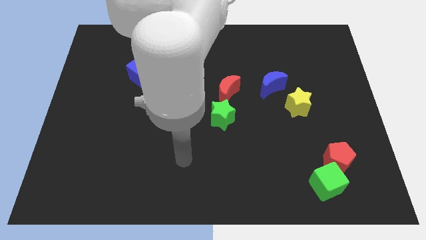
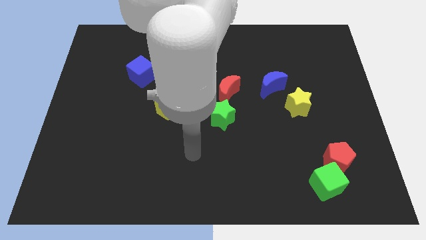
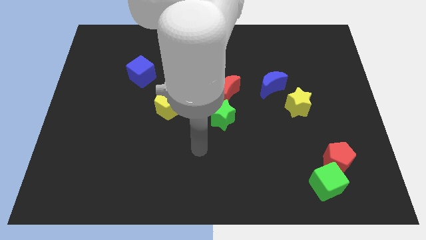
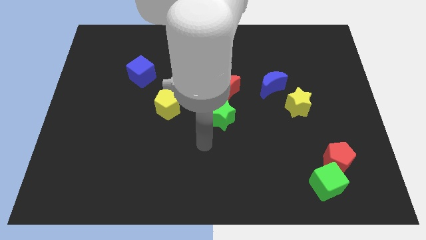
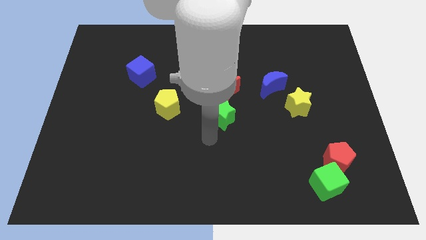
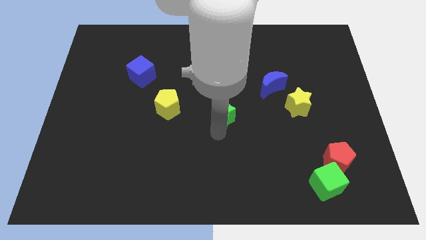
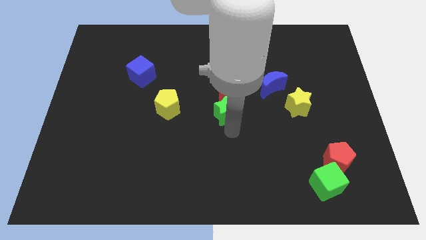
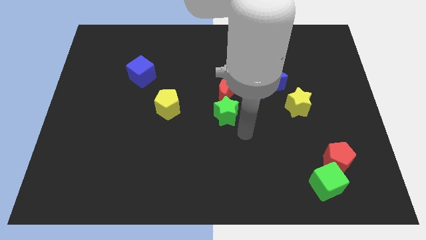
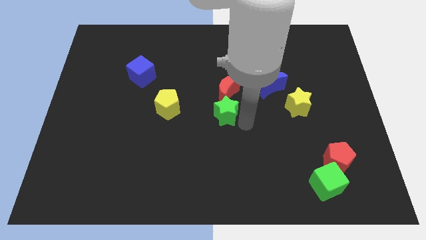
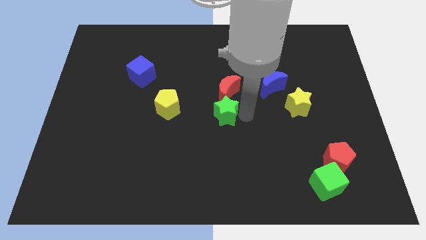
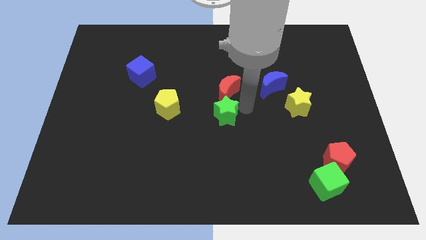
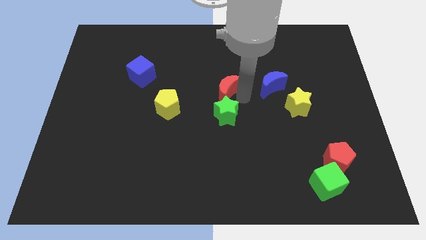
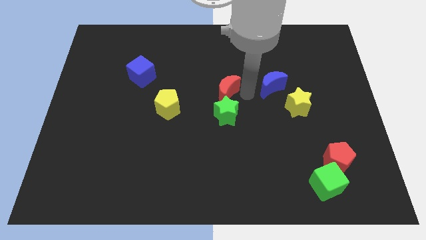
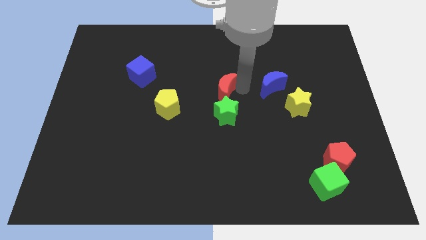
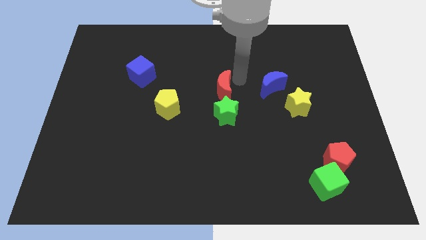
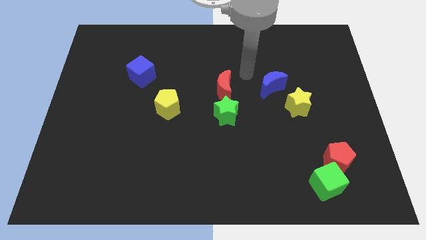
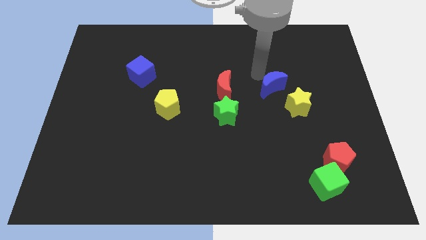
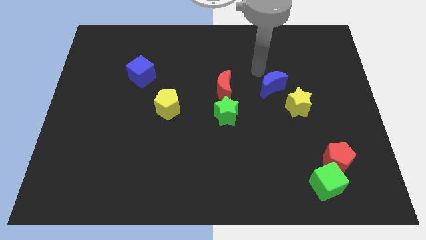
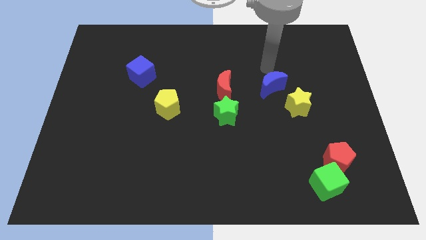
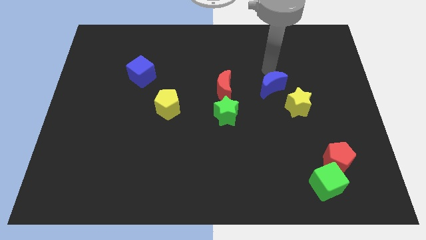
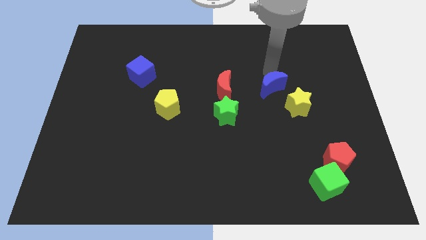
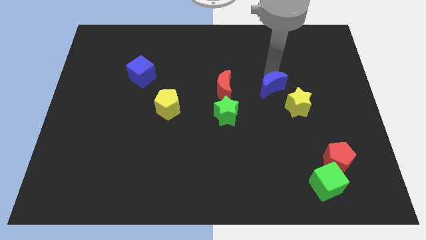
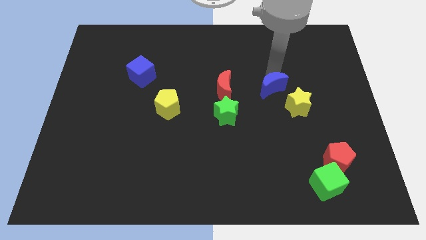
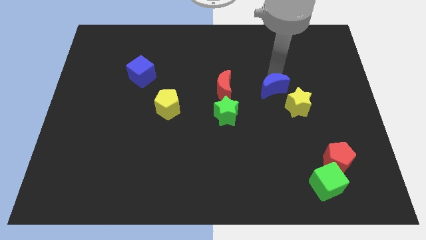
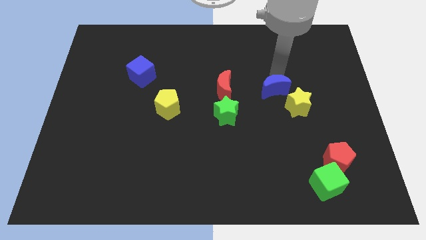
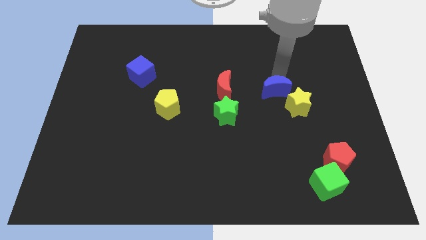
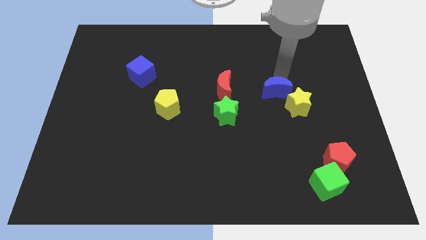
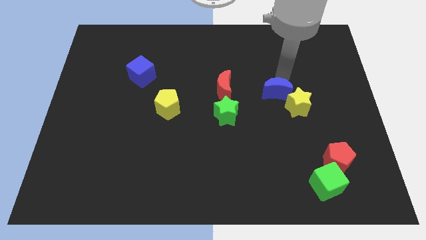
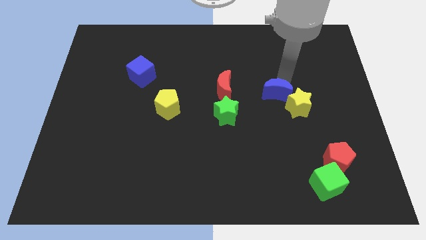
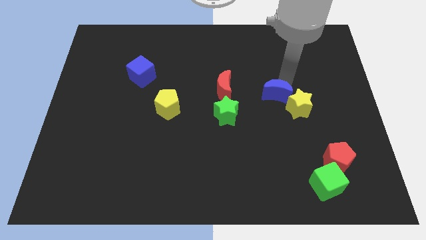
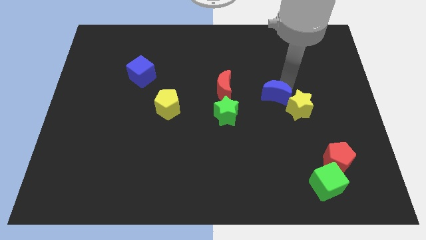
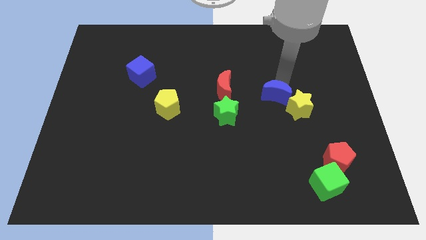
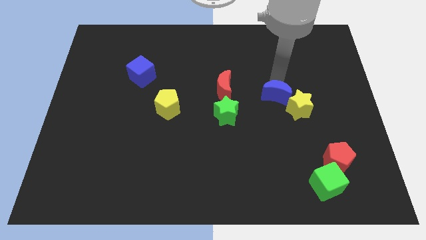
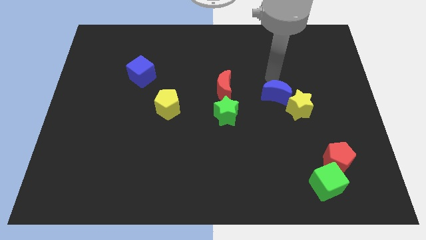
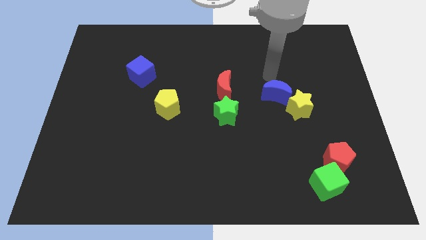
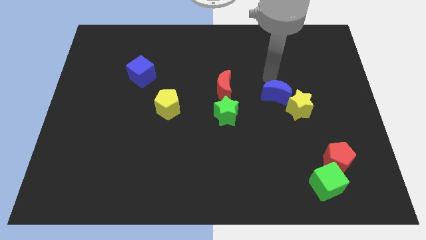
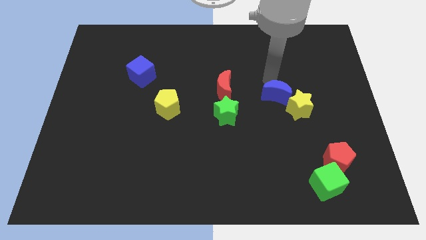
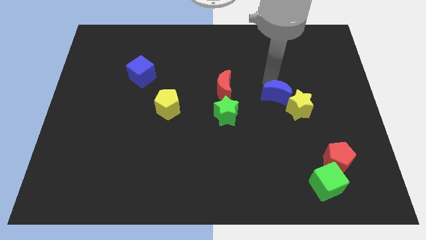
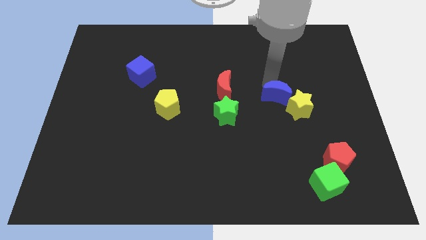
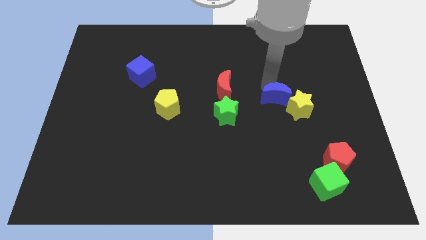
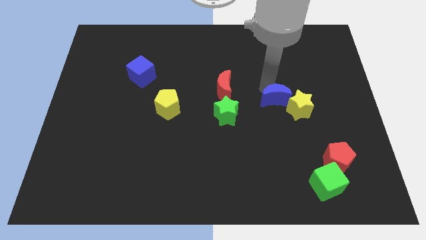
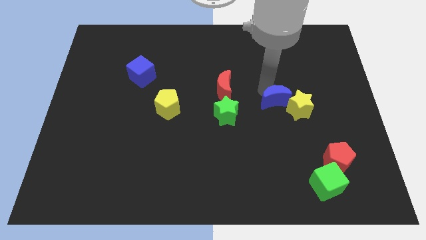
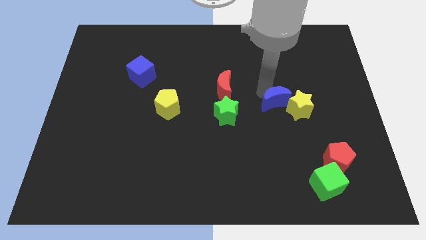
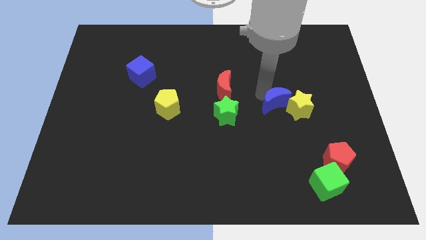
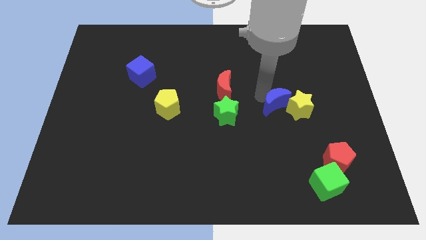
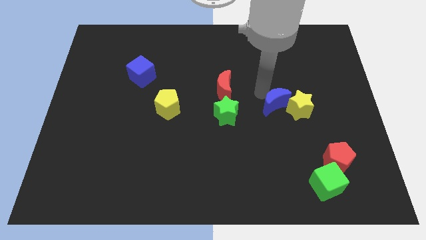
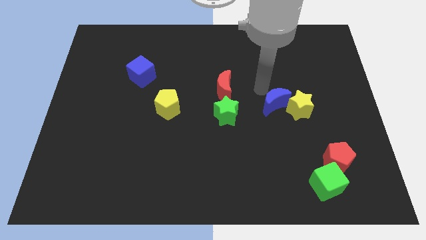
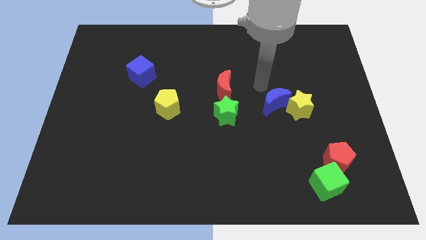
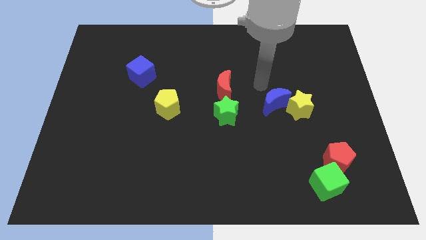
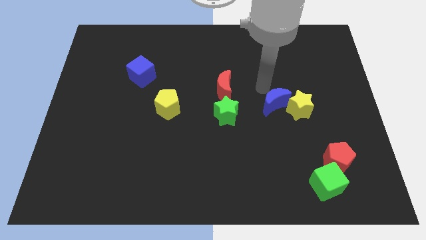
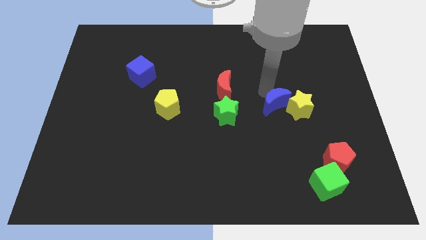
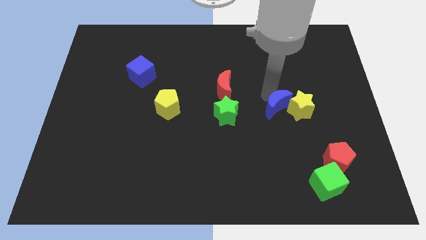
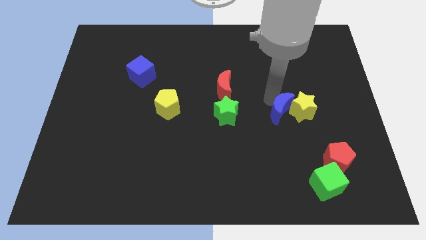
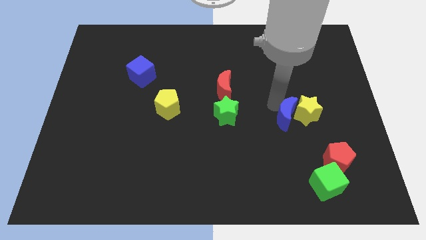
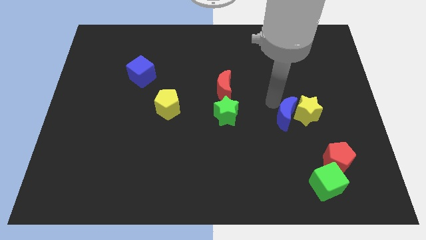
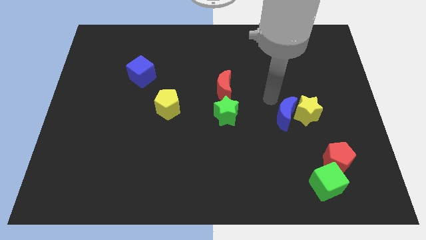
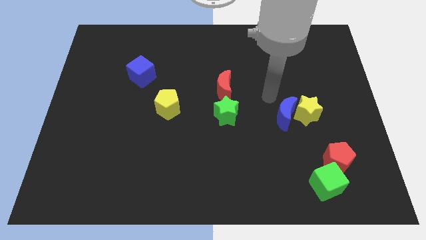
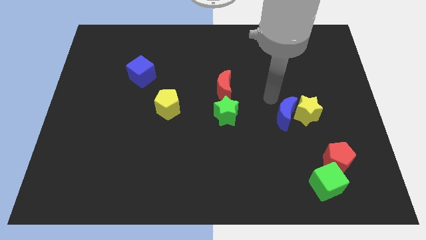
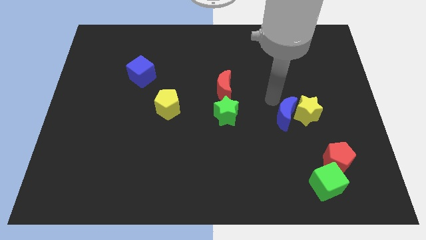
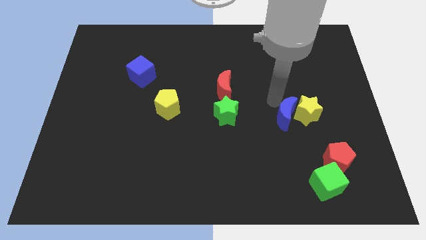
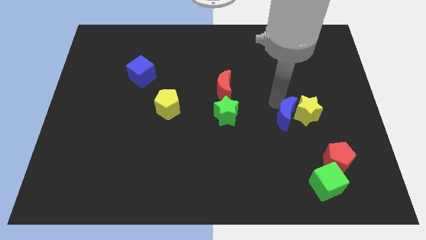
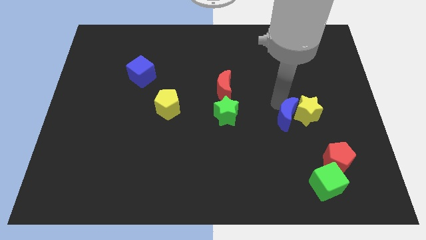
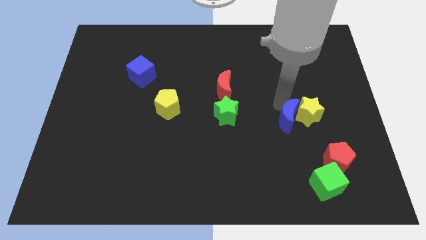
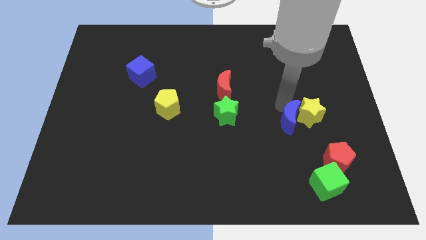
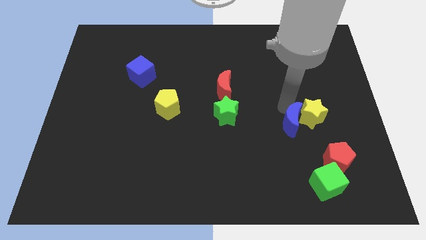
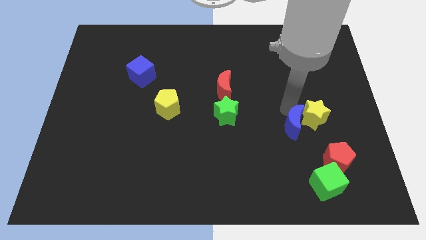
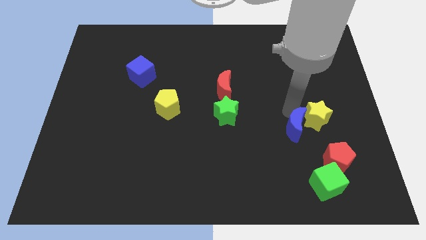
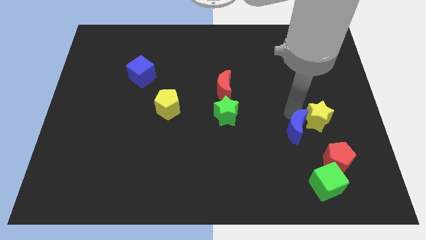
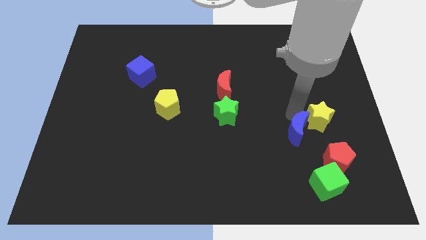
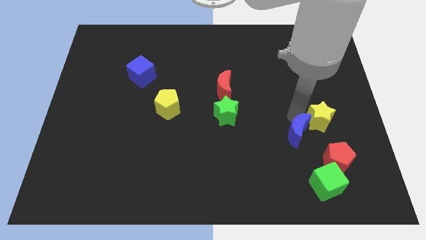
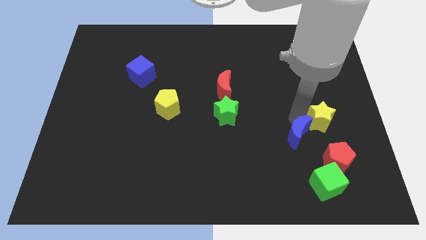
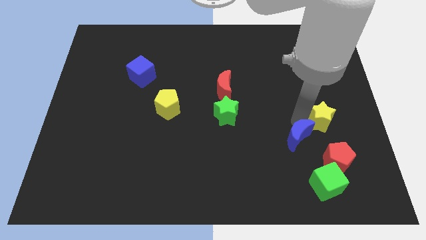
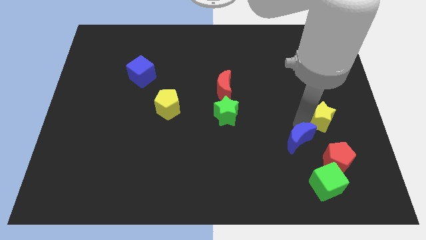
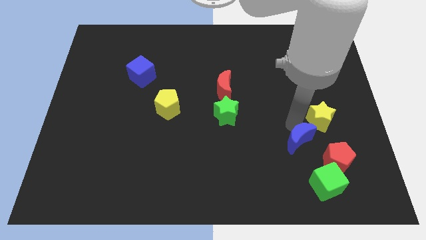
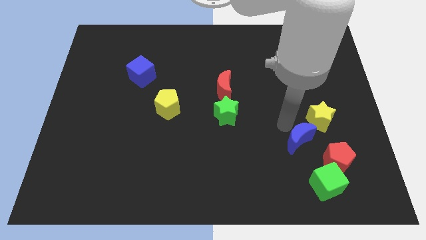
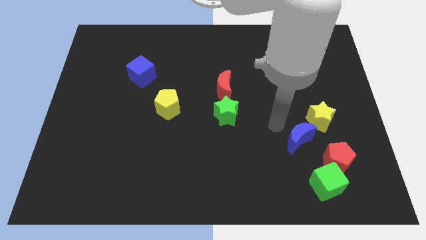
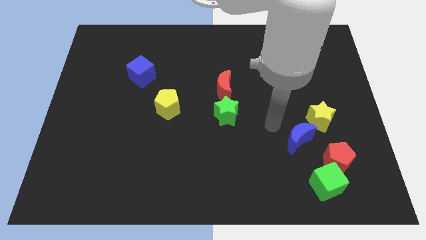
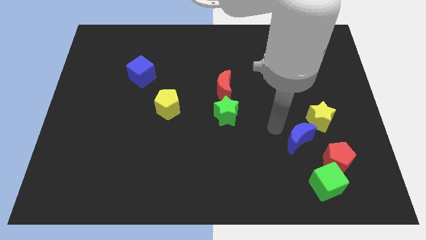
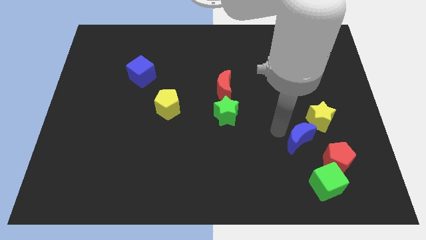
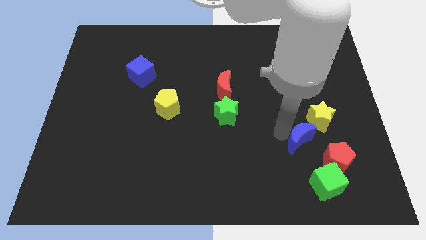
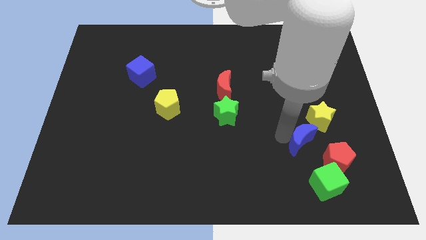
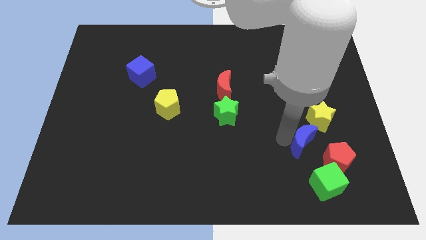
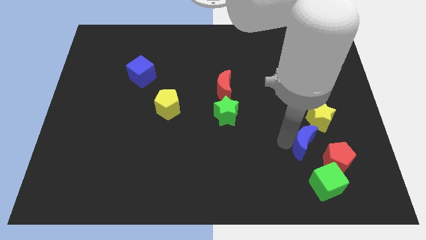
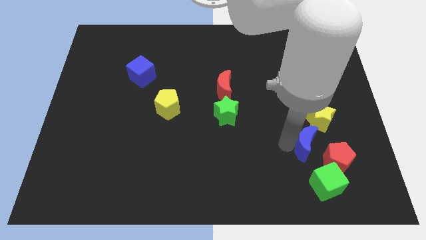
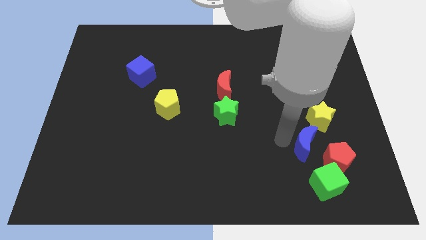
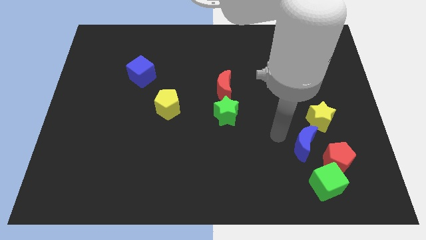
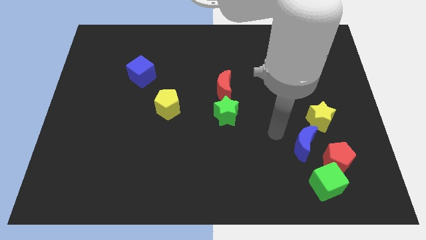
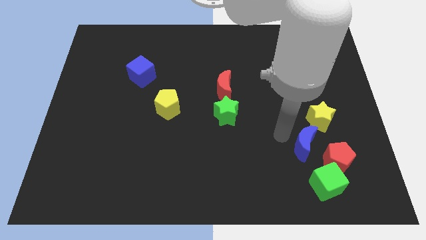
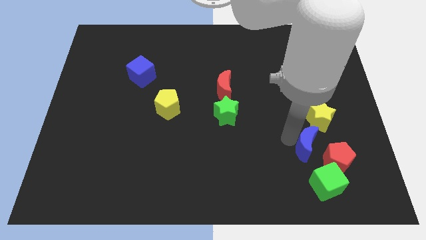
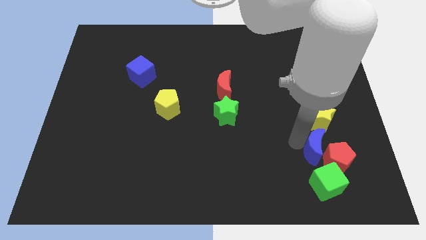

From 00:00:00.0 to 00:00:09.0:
put the blue moon towards the red pentagon
